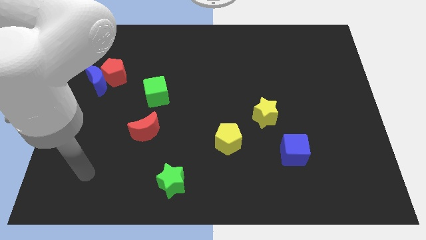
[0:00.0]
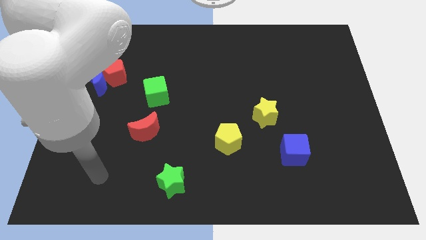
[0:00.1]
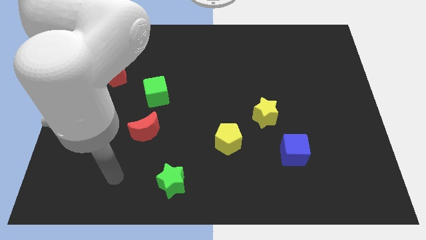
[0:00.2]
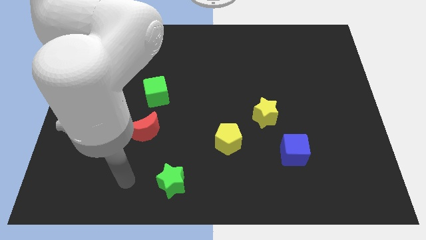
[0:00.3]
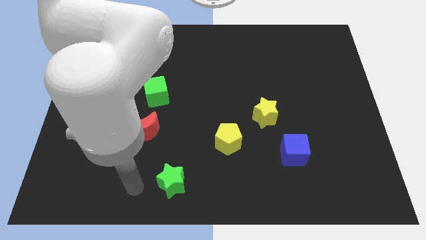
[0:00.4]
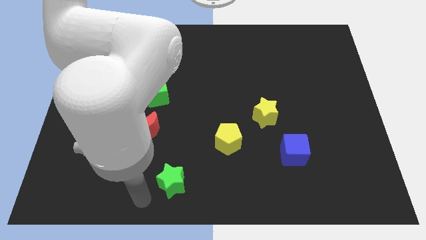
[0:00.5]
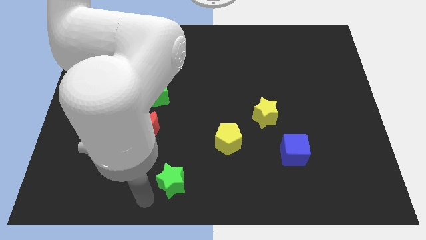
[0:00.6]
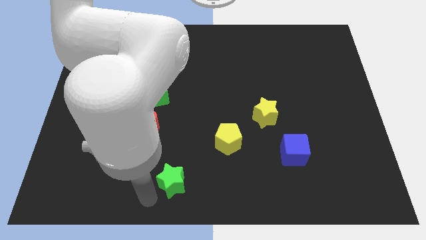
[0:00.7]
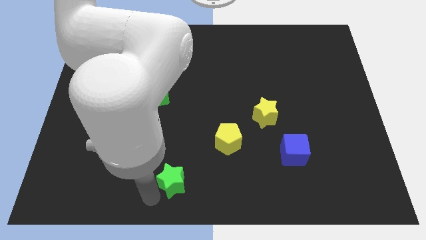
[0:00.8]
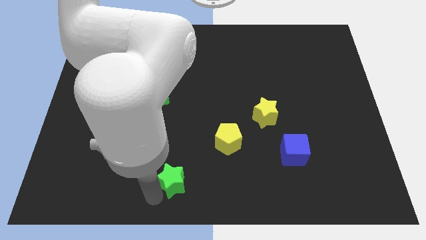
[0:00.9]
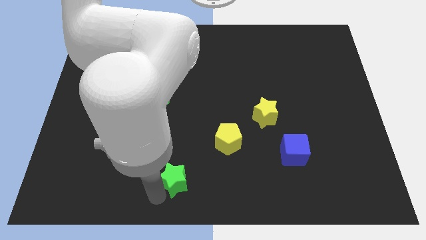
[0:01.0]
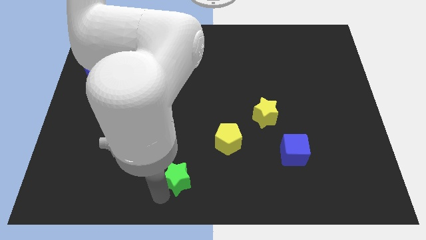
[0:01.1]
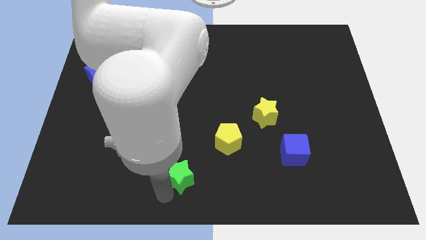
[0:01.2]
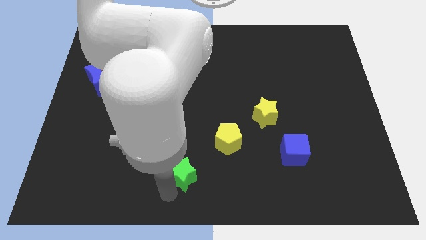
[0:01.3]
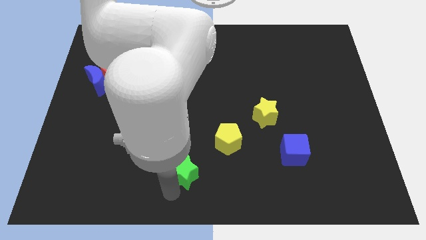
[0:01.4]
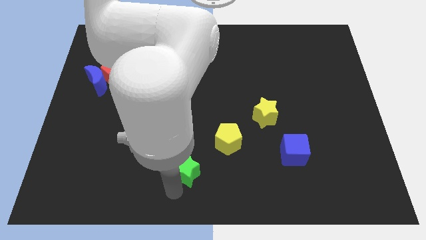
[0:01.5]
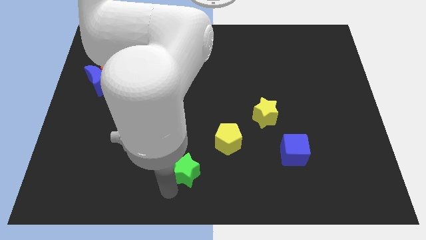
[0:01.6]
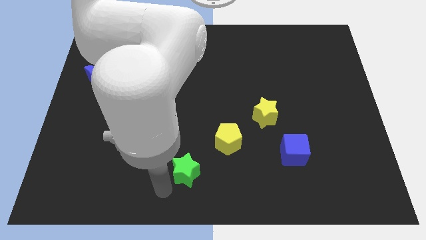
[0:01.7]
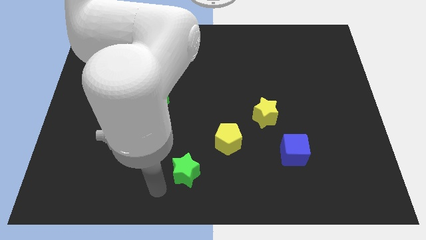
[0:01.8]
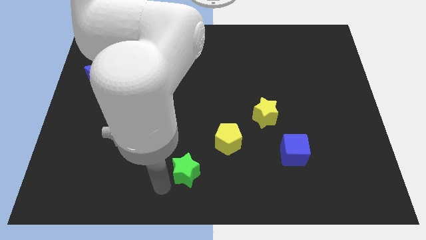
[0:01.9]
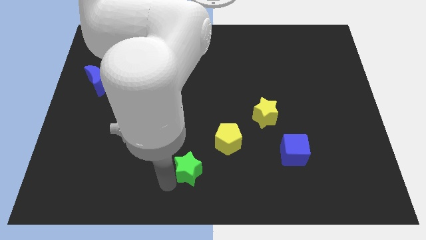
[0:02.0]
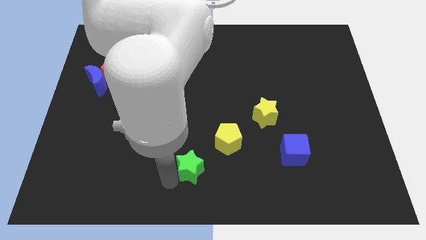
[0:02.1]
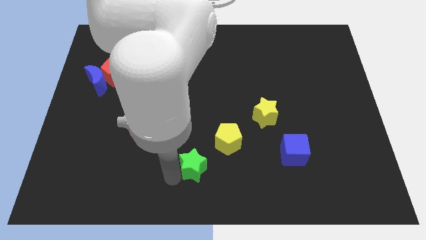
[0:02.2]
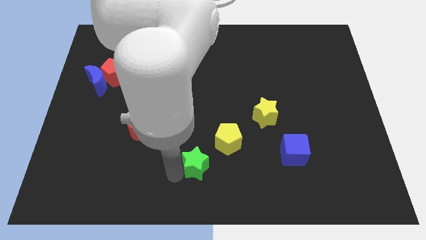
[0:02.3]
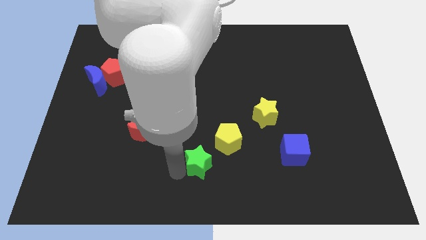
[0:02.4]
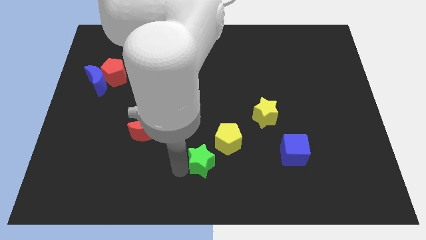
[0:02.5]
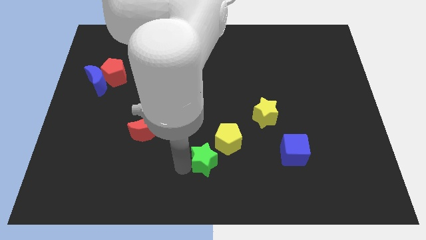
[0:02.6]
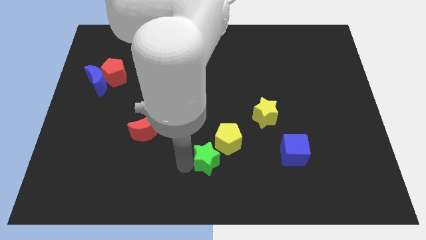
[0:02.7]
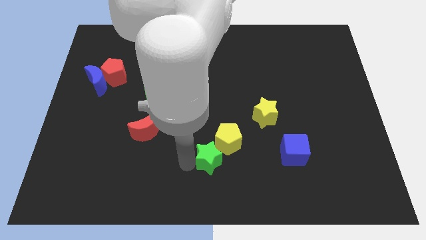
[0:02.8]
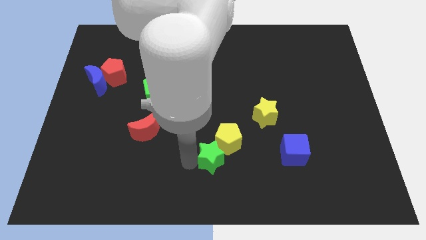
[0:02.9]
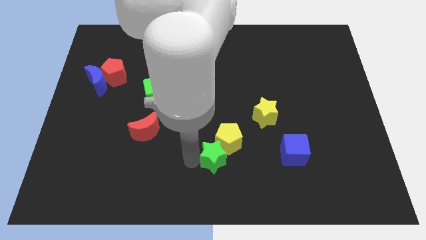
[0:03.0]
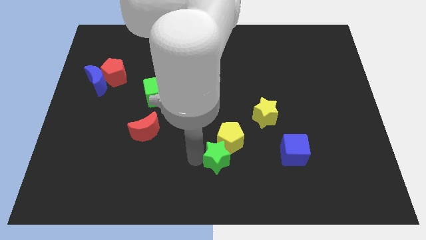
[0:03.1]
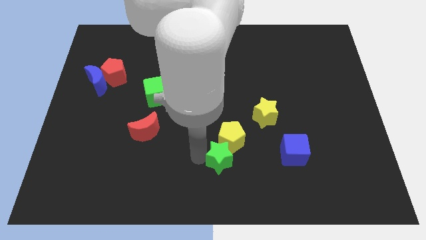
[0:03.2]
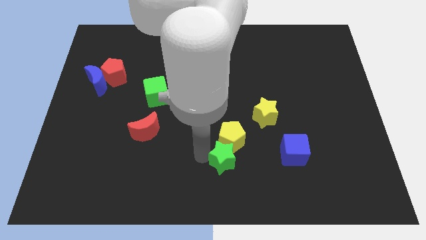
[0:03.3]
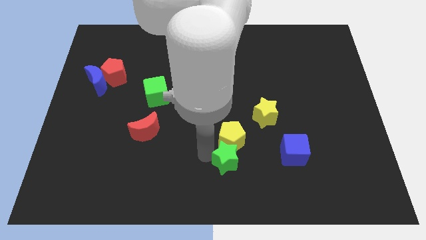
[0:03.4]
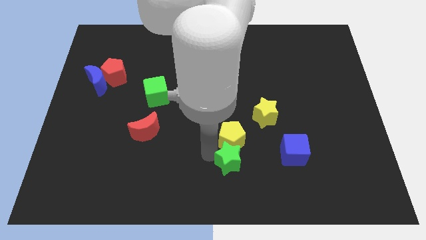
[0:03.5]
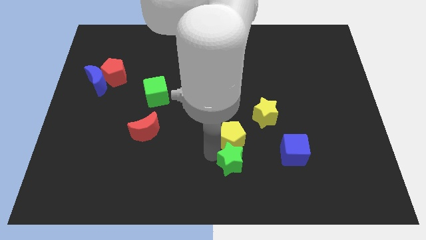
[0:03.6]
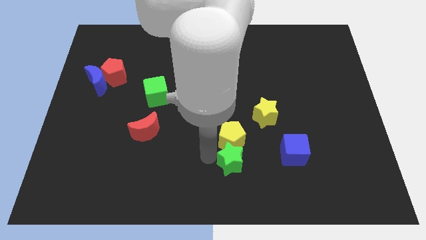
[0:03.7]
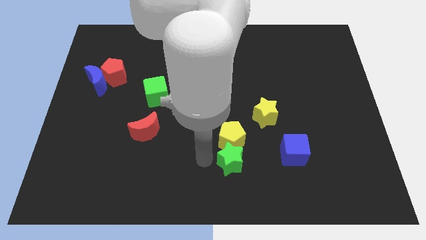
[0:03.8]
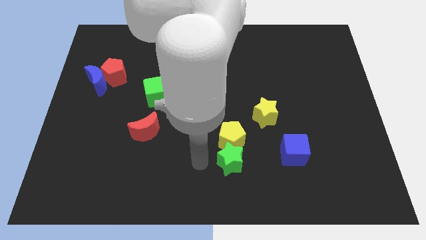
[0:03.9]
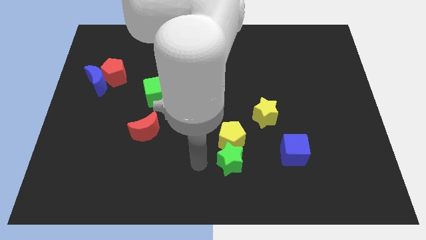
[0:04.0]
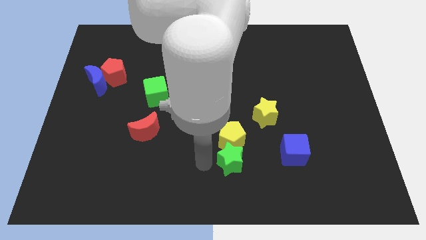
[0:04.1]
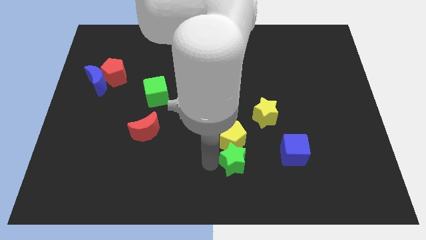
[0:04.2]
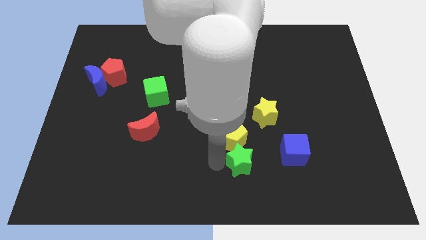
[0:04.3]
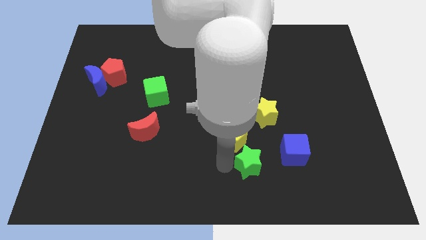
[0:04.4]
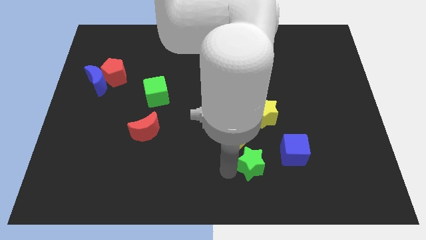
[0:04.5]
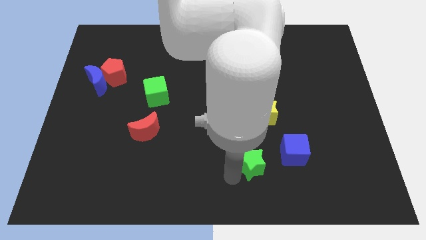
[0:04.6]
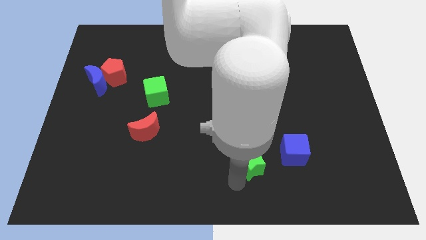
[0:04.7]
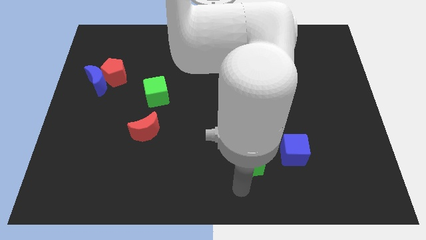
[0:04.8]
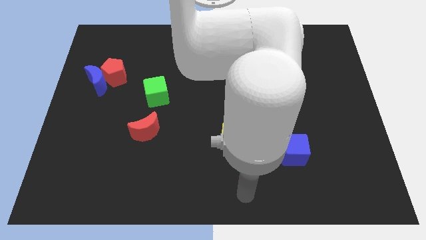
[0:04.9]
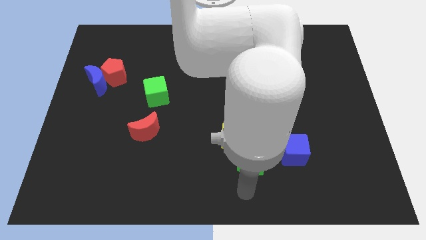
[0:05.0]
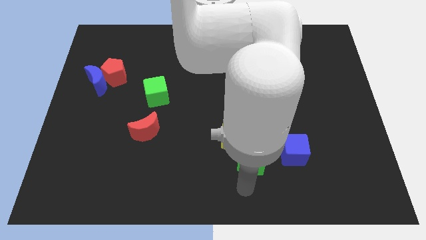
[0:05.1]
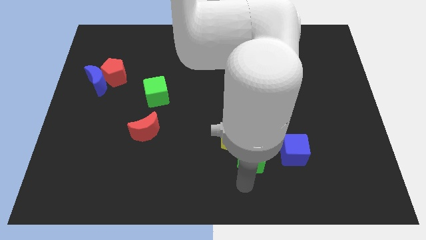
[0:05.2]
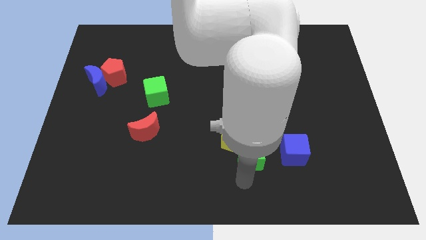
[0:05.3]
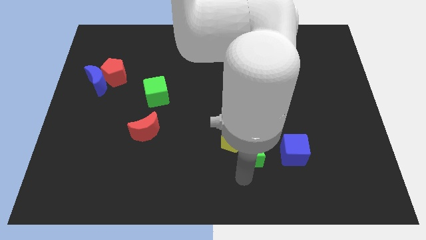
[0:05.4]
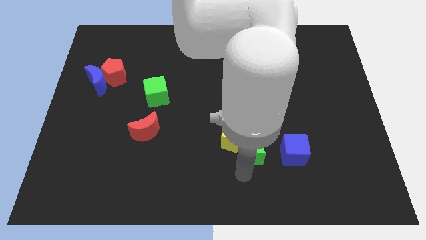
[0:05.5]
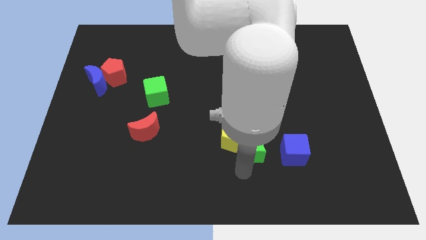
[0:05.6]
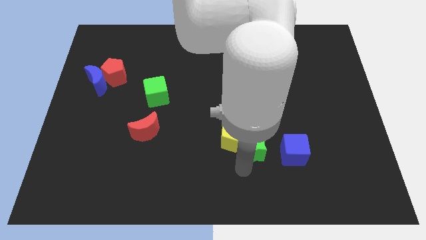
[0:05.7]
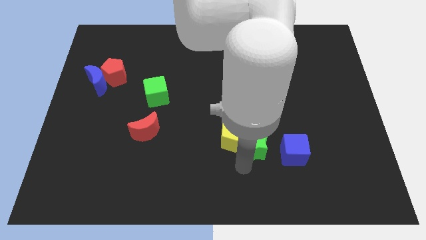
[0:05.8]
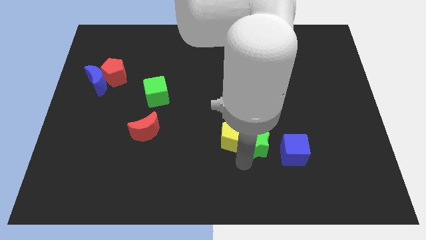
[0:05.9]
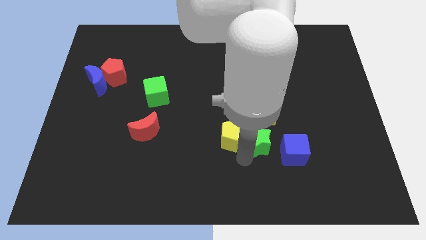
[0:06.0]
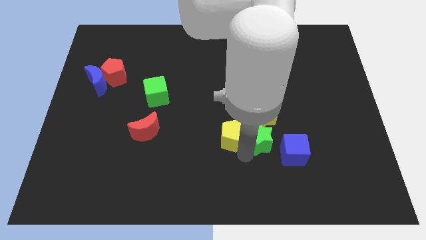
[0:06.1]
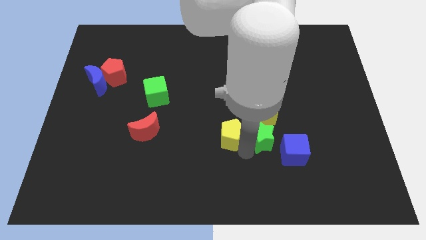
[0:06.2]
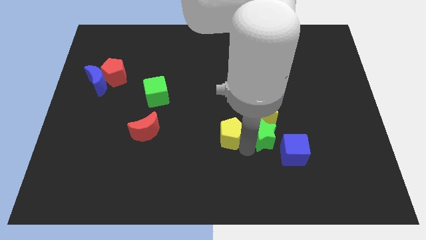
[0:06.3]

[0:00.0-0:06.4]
put the green star to the yellow star

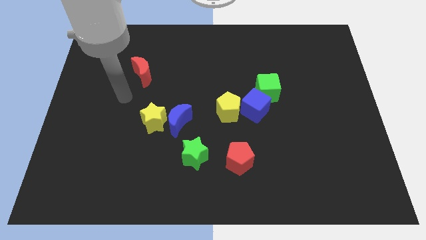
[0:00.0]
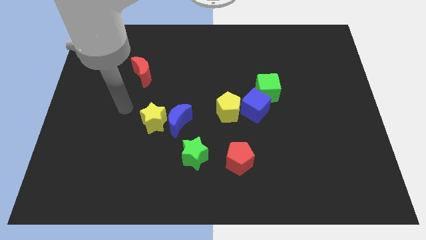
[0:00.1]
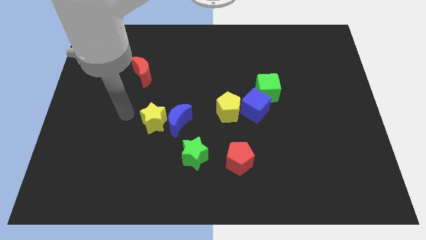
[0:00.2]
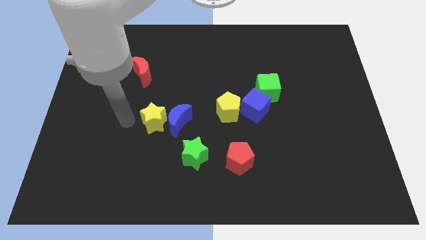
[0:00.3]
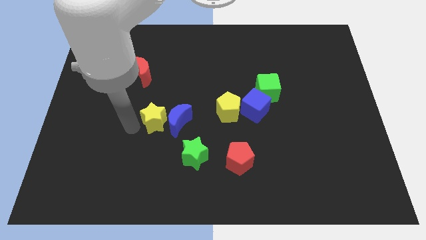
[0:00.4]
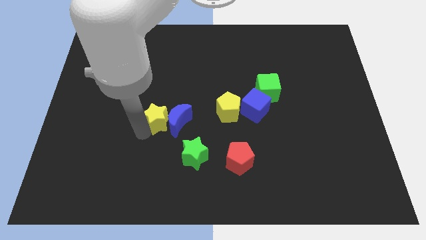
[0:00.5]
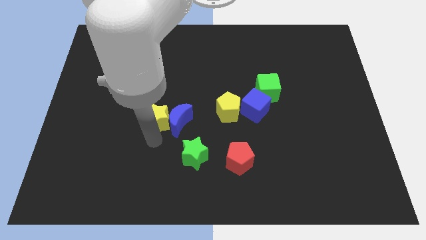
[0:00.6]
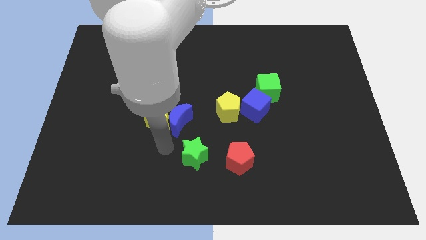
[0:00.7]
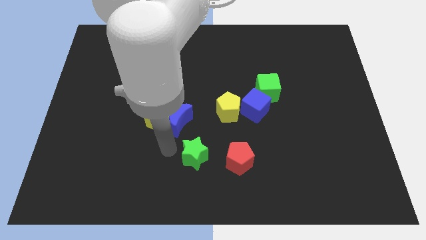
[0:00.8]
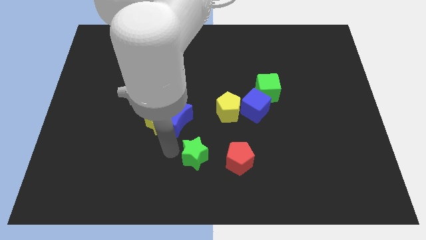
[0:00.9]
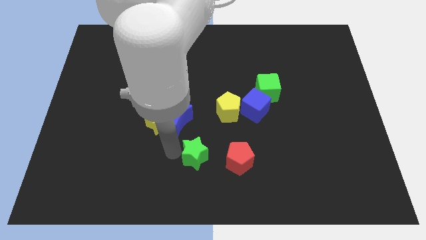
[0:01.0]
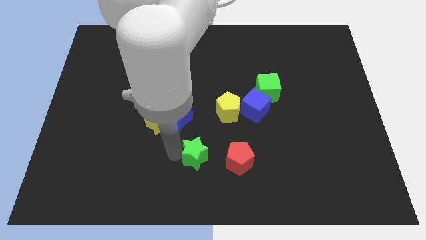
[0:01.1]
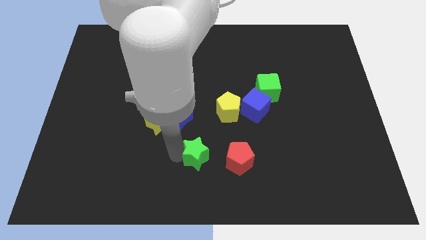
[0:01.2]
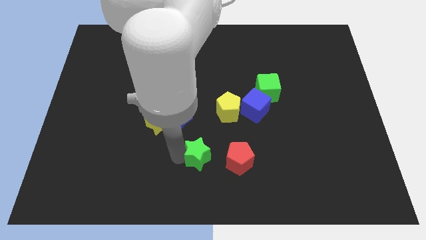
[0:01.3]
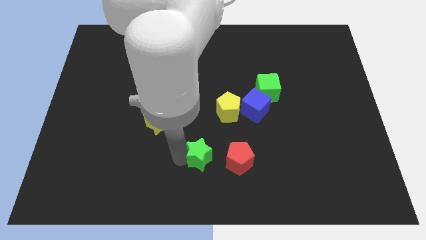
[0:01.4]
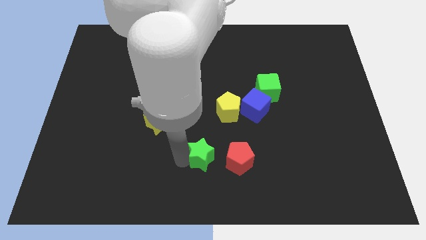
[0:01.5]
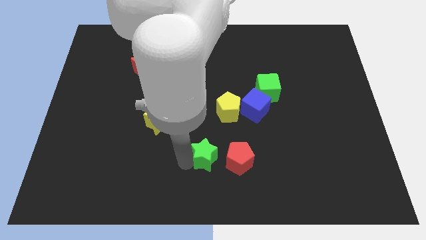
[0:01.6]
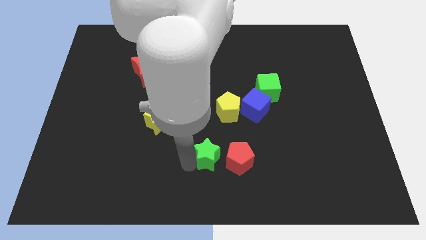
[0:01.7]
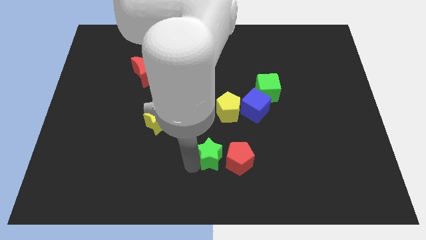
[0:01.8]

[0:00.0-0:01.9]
push the green star next to the red pentagon
